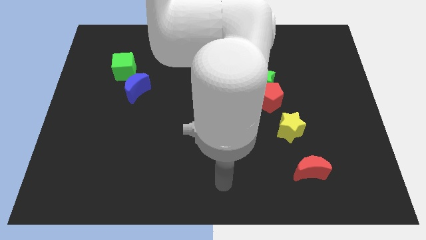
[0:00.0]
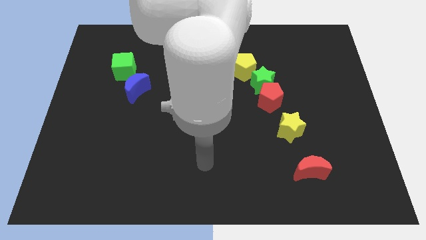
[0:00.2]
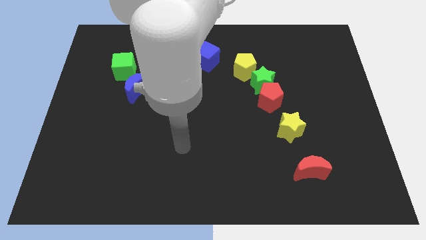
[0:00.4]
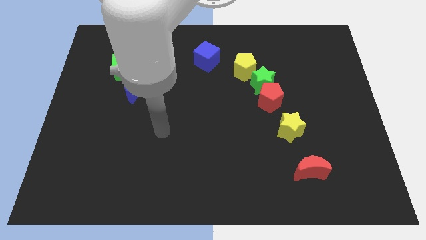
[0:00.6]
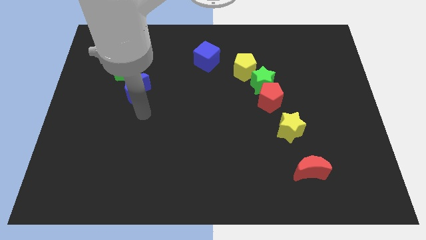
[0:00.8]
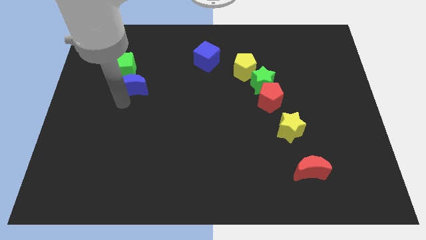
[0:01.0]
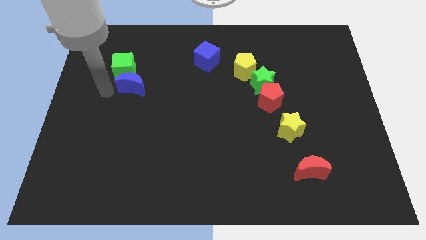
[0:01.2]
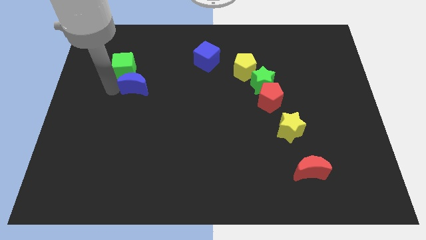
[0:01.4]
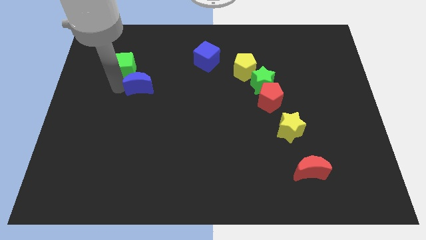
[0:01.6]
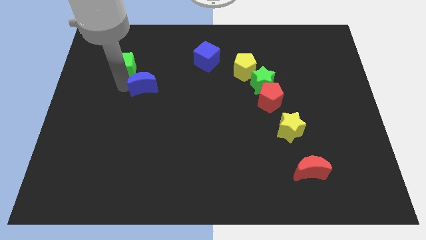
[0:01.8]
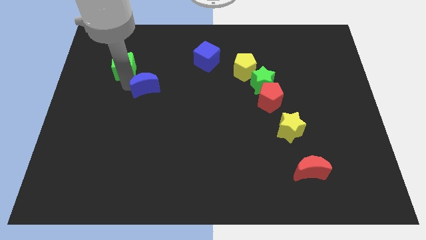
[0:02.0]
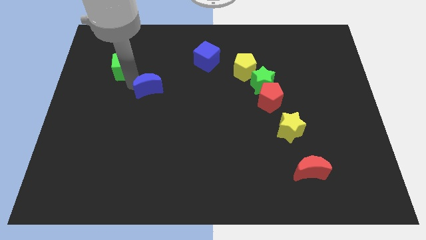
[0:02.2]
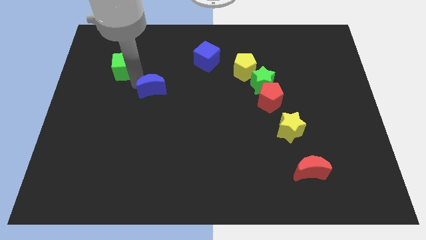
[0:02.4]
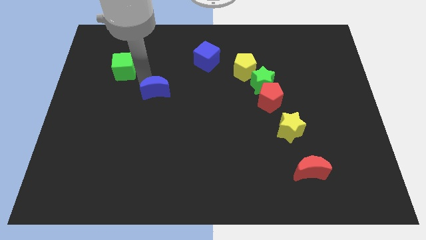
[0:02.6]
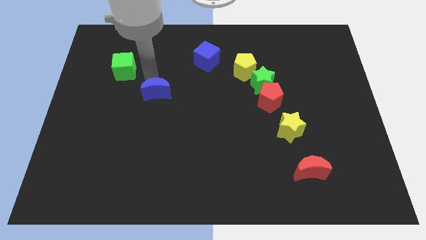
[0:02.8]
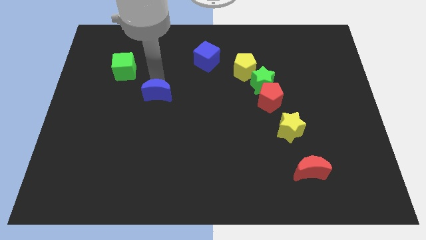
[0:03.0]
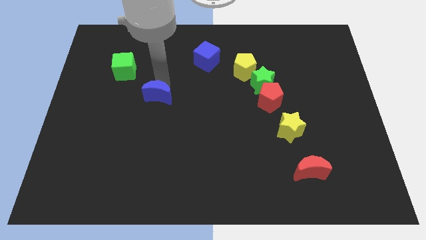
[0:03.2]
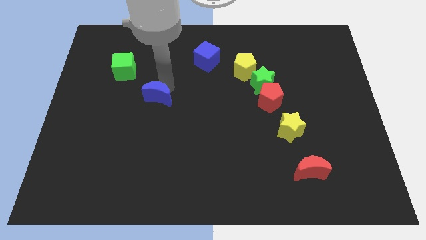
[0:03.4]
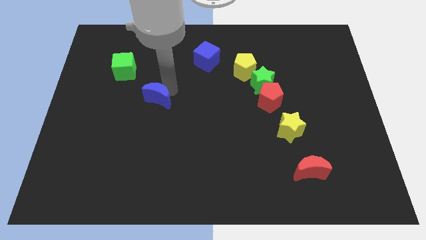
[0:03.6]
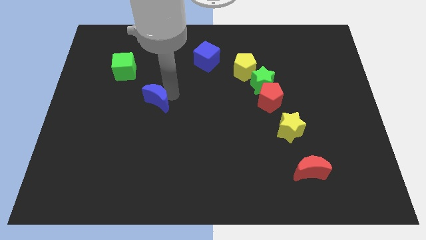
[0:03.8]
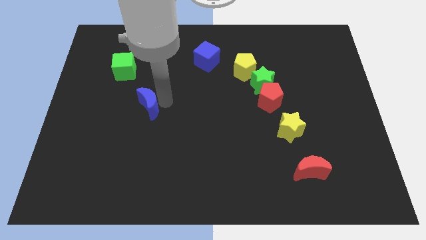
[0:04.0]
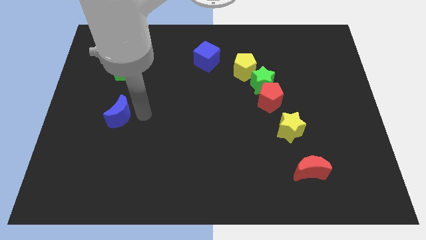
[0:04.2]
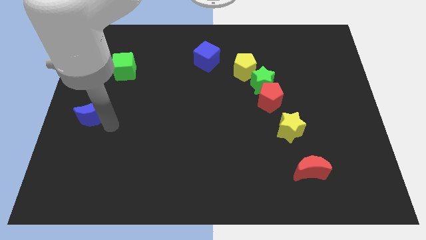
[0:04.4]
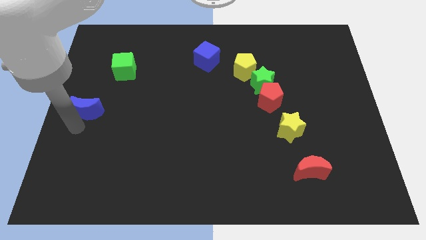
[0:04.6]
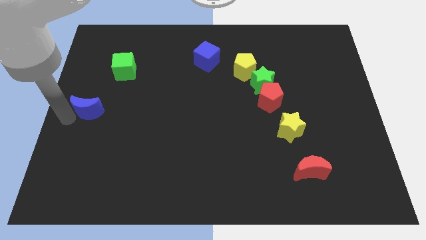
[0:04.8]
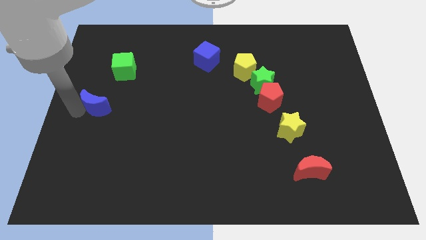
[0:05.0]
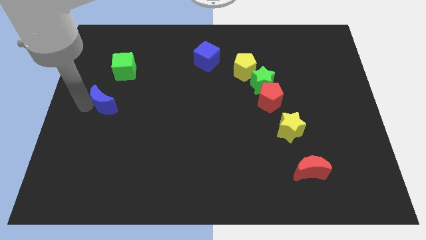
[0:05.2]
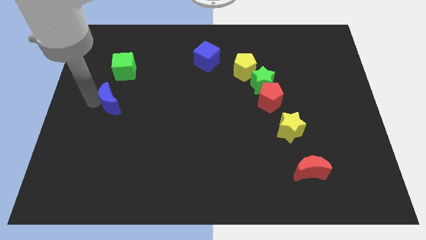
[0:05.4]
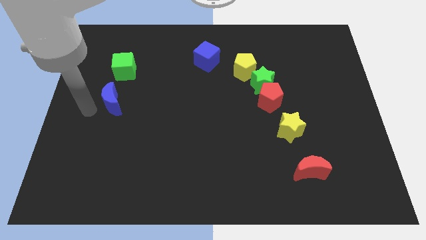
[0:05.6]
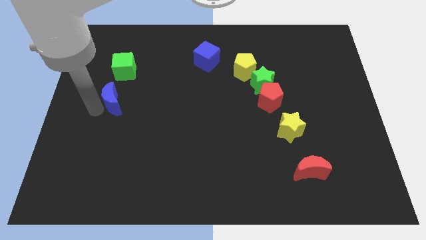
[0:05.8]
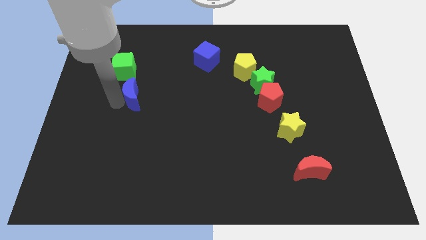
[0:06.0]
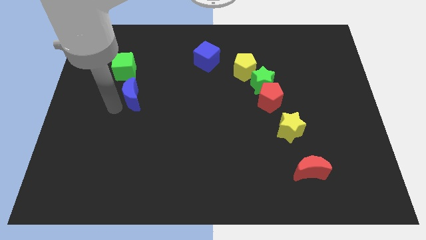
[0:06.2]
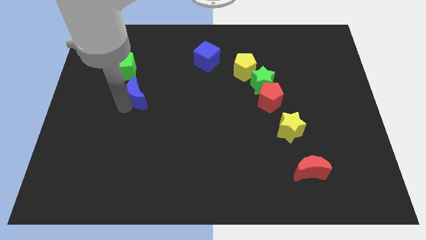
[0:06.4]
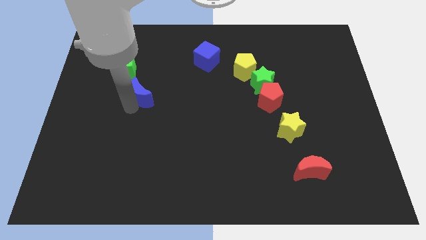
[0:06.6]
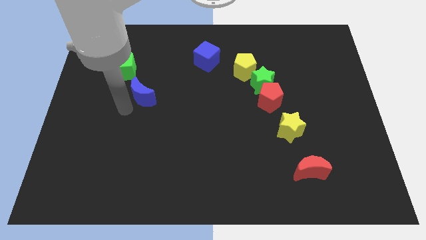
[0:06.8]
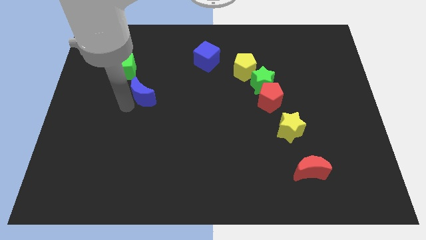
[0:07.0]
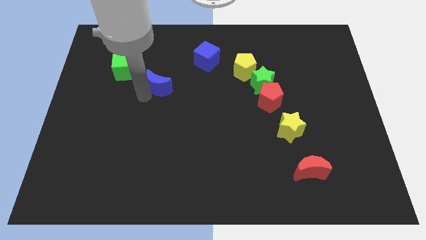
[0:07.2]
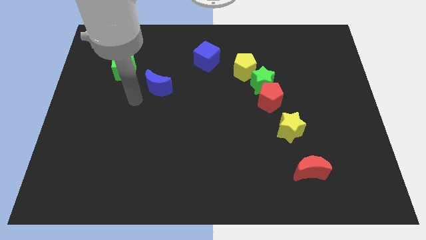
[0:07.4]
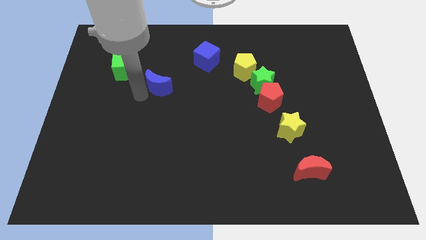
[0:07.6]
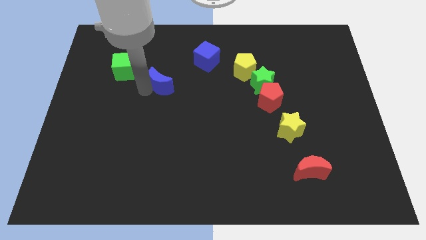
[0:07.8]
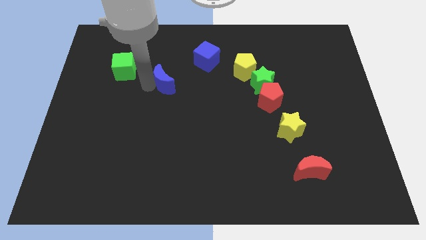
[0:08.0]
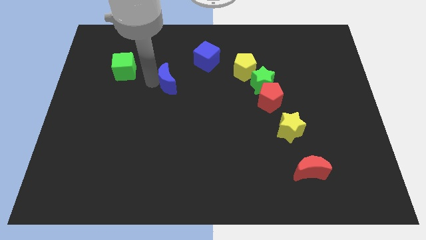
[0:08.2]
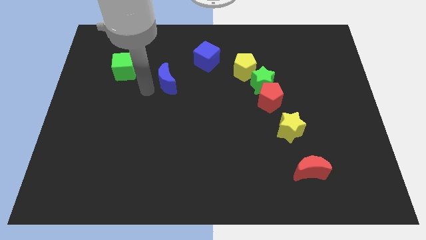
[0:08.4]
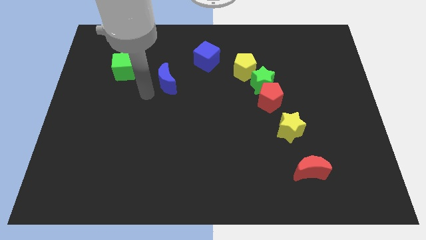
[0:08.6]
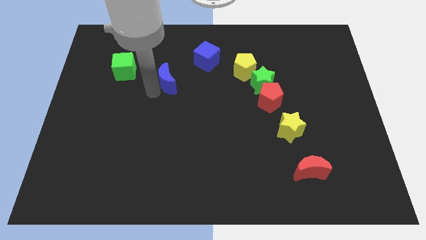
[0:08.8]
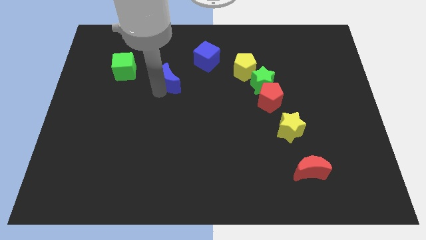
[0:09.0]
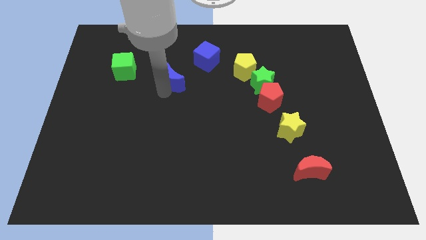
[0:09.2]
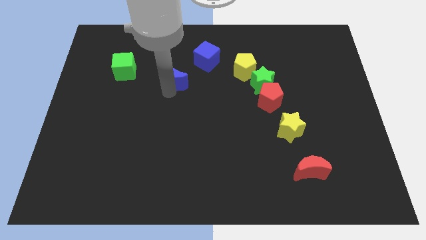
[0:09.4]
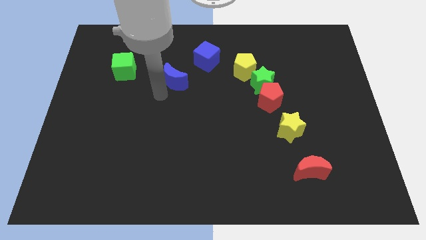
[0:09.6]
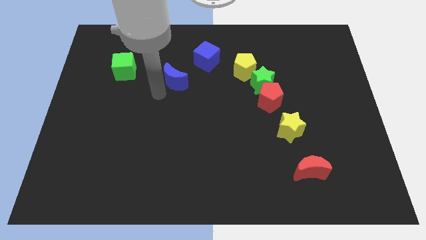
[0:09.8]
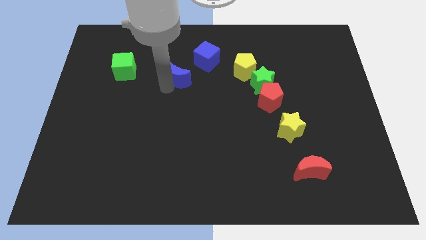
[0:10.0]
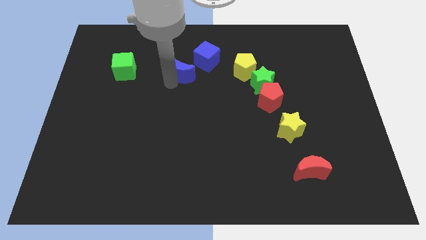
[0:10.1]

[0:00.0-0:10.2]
move the blue moon to the left side of the yellow pentagon

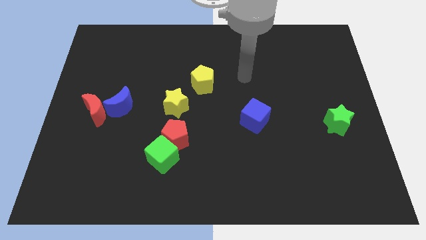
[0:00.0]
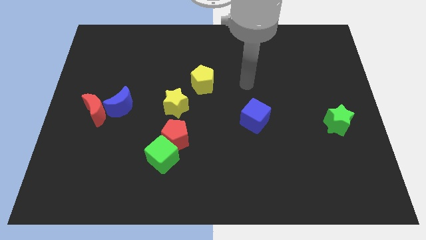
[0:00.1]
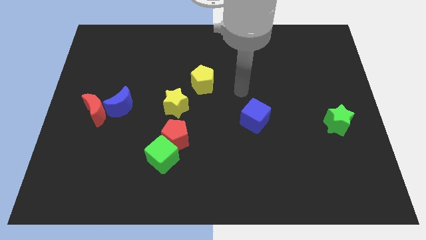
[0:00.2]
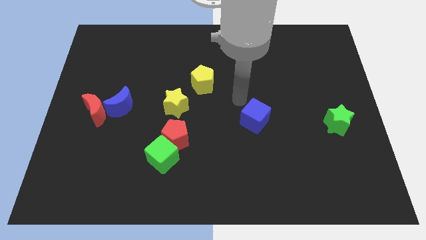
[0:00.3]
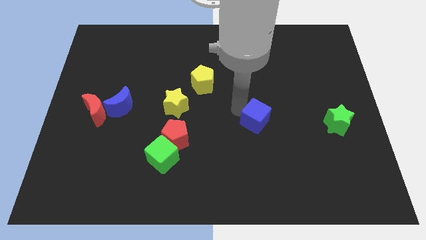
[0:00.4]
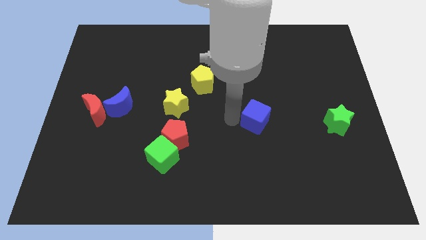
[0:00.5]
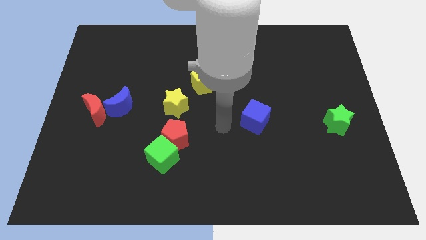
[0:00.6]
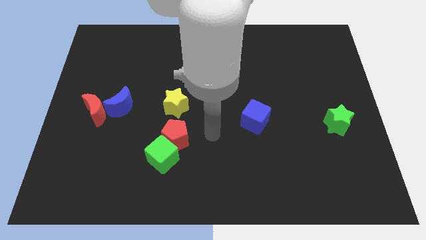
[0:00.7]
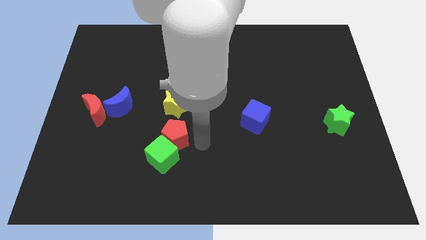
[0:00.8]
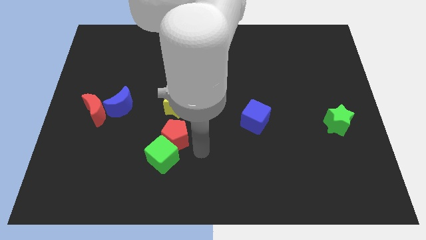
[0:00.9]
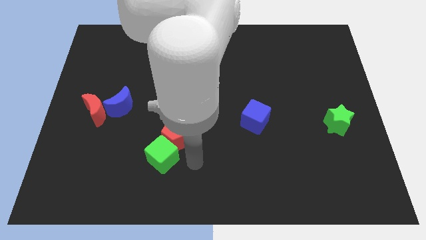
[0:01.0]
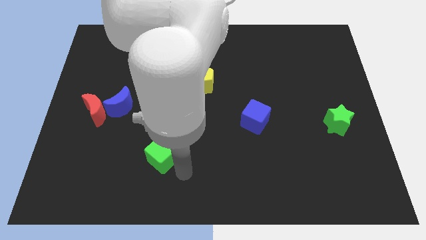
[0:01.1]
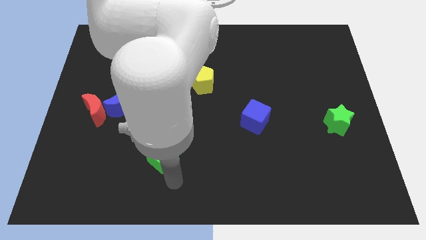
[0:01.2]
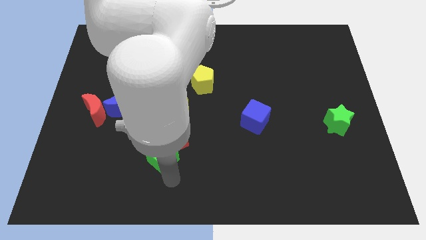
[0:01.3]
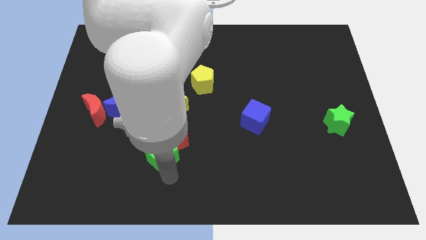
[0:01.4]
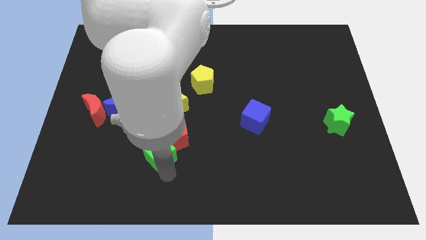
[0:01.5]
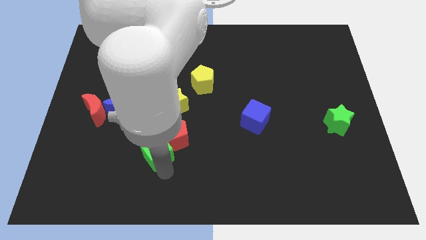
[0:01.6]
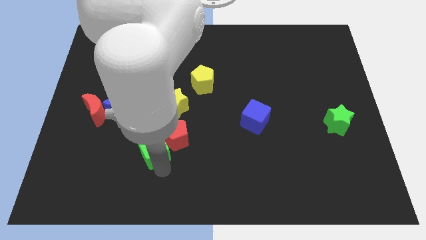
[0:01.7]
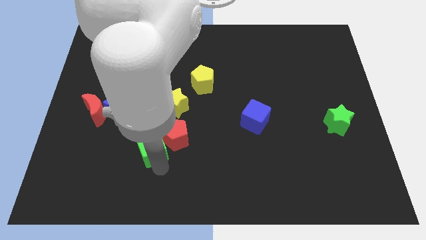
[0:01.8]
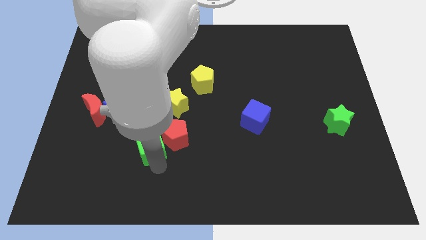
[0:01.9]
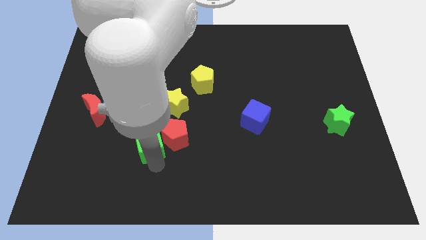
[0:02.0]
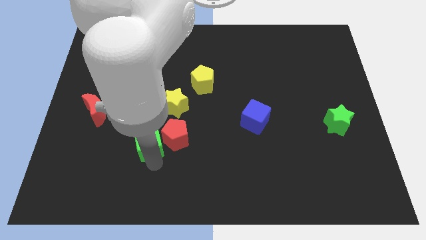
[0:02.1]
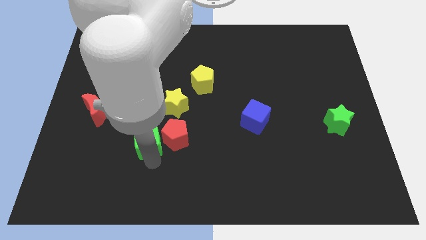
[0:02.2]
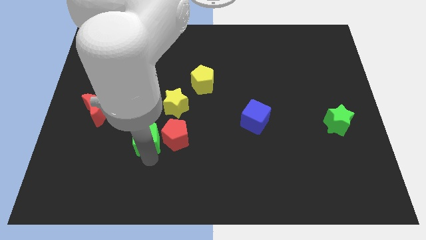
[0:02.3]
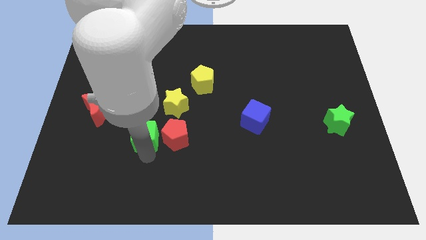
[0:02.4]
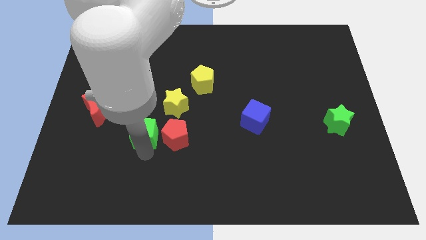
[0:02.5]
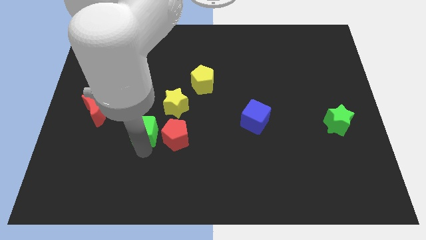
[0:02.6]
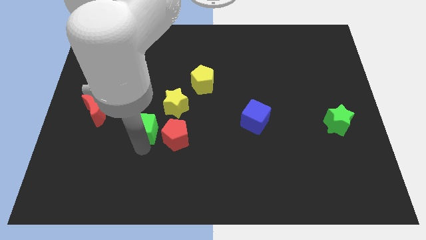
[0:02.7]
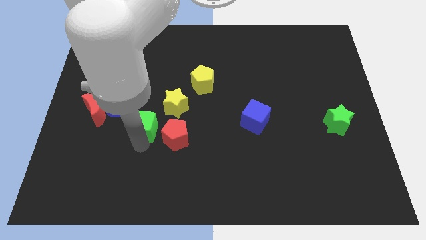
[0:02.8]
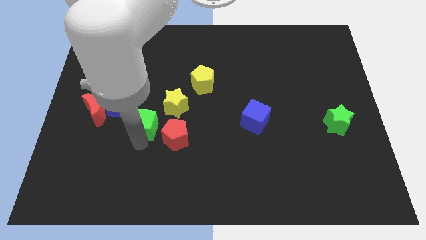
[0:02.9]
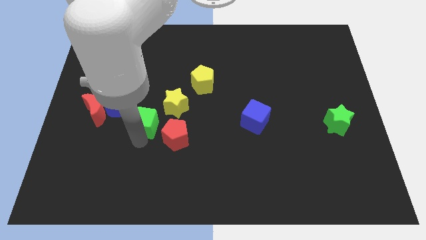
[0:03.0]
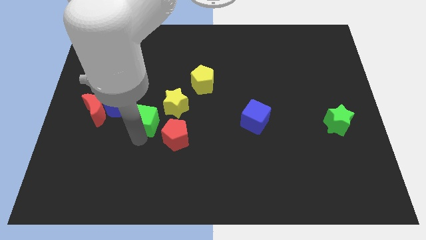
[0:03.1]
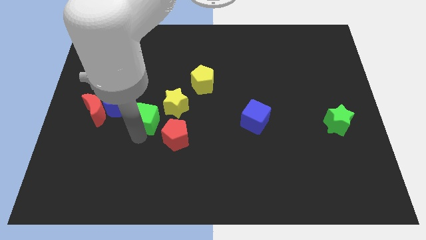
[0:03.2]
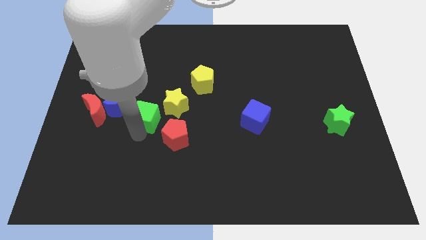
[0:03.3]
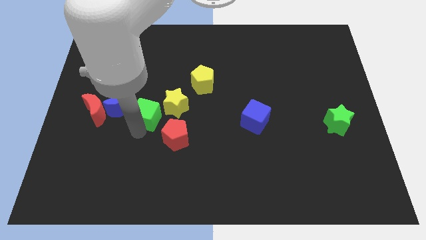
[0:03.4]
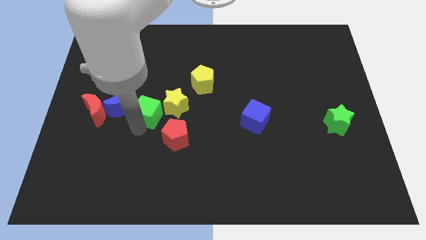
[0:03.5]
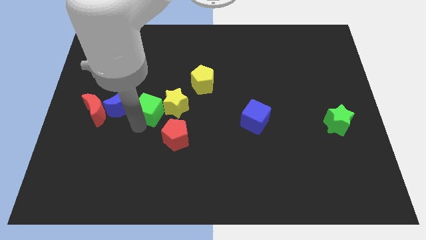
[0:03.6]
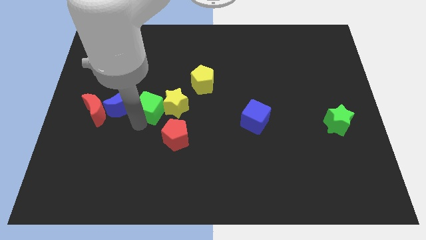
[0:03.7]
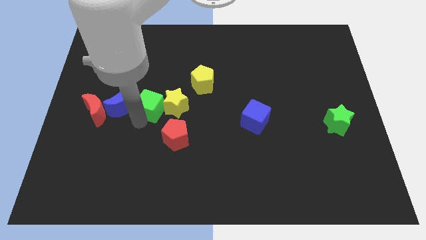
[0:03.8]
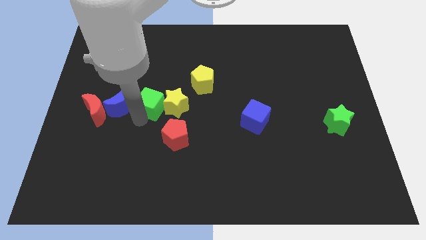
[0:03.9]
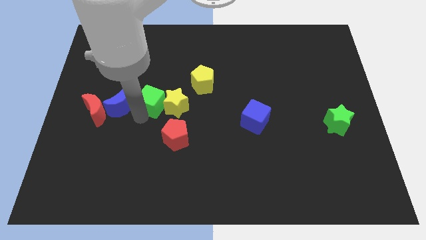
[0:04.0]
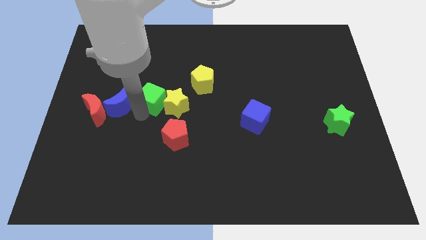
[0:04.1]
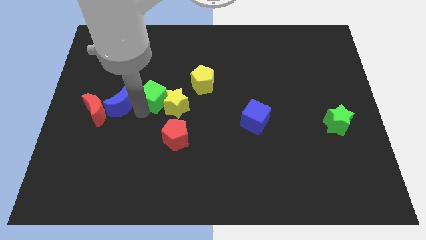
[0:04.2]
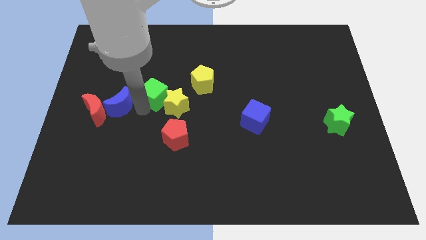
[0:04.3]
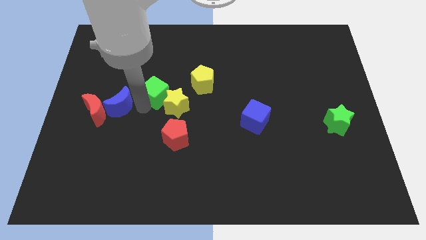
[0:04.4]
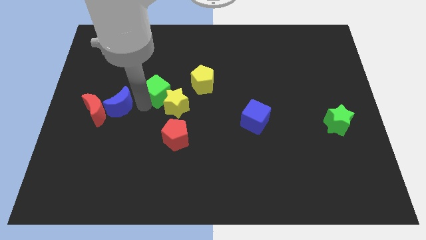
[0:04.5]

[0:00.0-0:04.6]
slide the green cube to the top side of the yellow star
